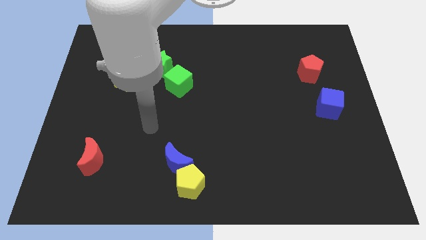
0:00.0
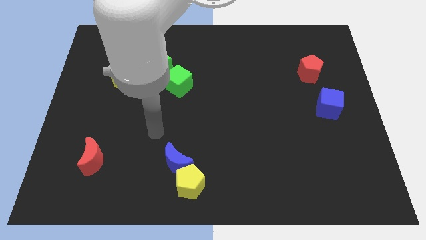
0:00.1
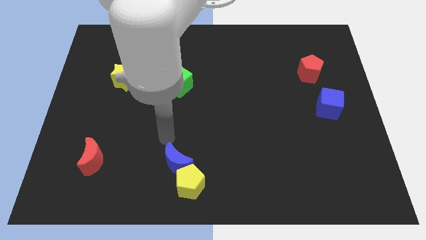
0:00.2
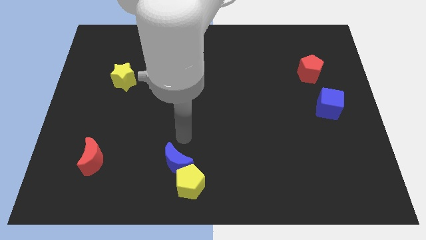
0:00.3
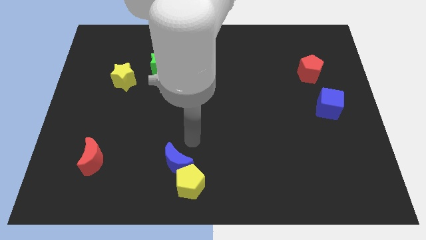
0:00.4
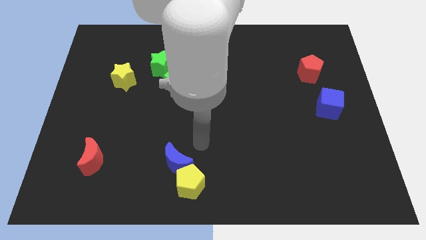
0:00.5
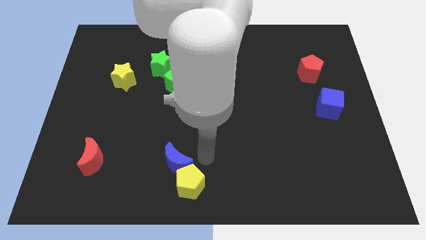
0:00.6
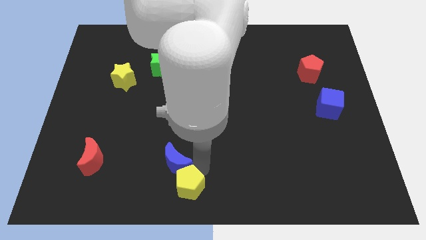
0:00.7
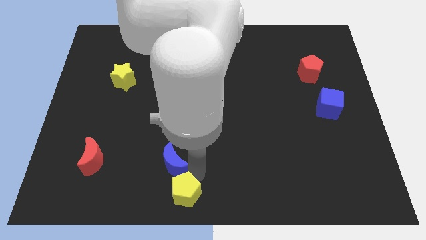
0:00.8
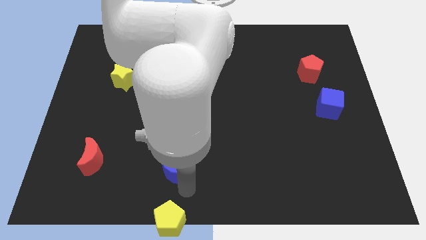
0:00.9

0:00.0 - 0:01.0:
separate the blue moon from the yellow pentagon

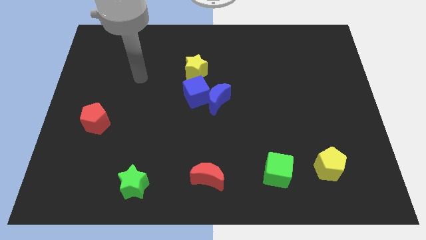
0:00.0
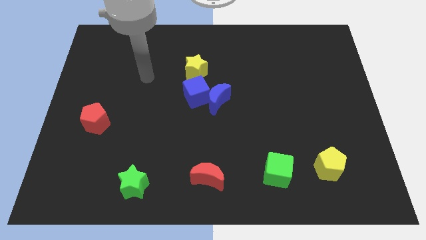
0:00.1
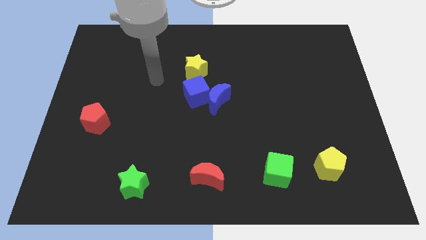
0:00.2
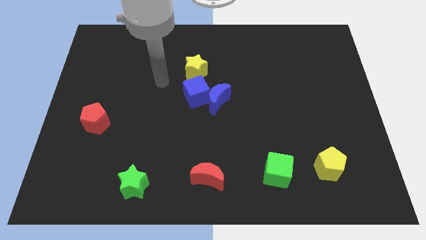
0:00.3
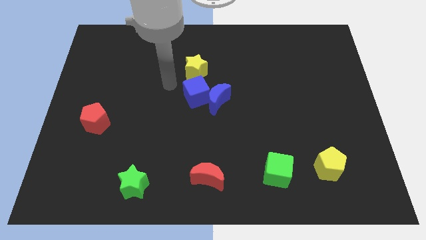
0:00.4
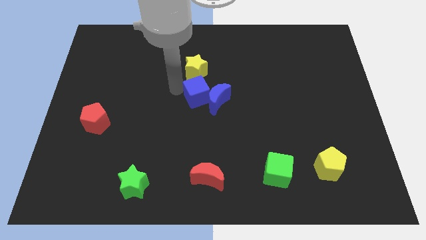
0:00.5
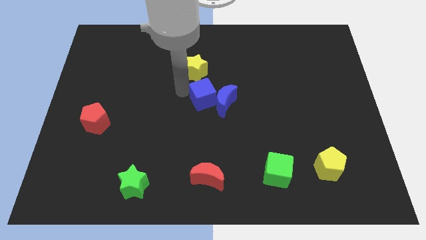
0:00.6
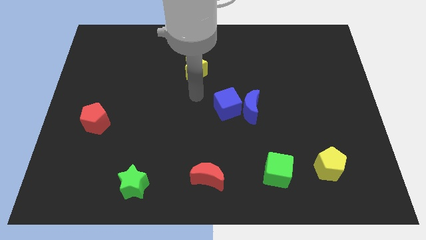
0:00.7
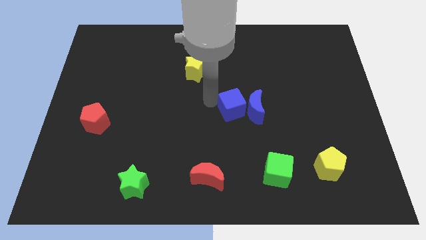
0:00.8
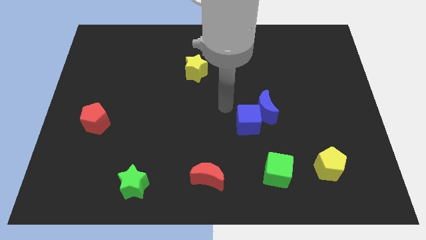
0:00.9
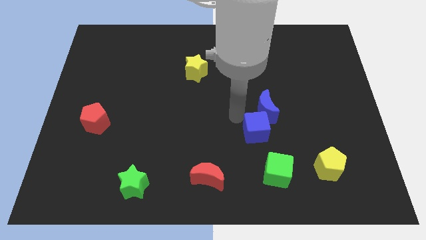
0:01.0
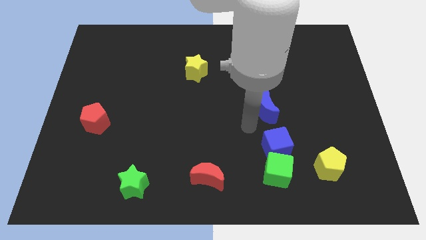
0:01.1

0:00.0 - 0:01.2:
pull the blue moon apart from the blue cube

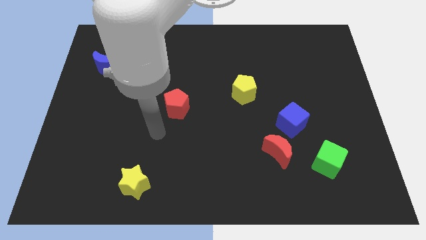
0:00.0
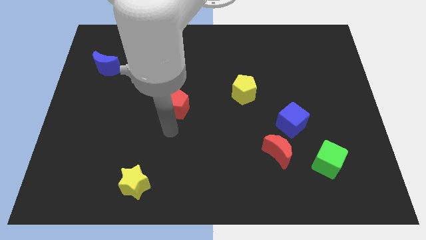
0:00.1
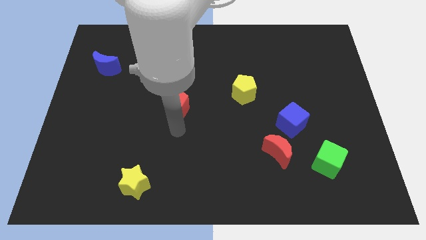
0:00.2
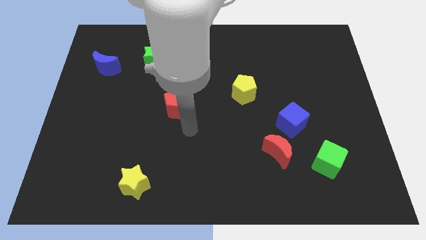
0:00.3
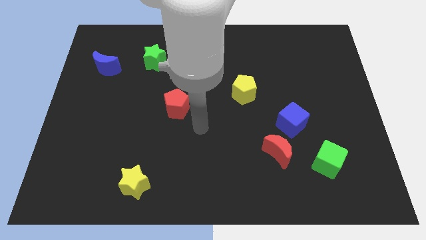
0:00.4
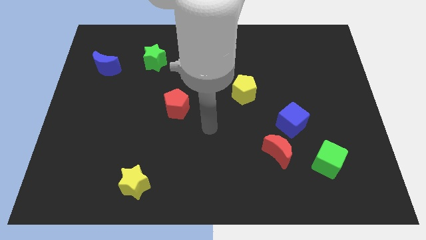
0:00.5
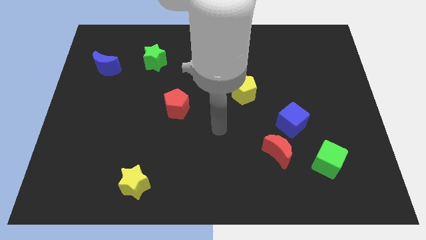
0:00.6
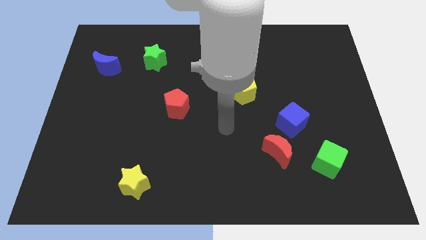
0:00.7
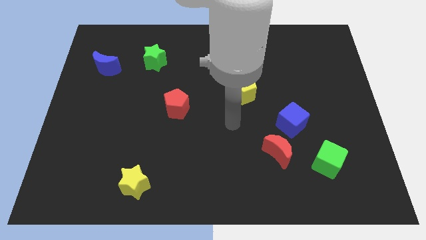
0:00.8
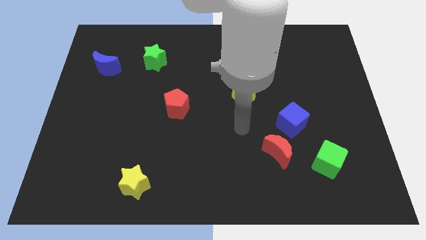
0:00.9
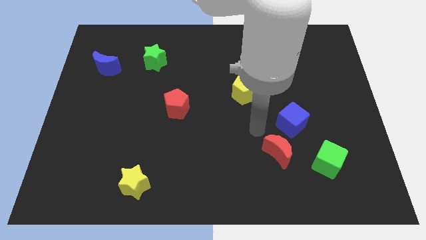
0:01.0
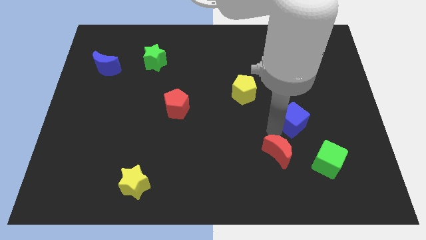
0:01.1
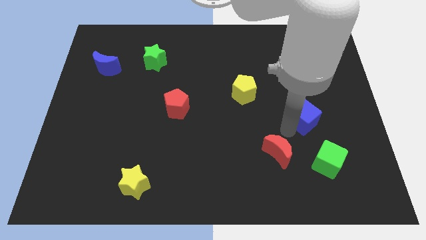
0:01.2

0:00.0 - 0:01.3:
separate the red moon from the blue cube

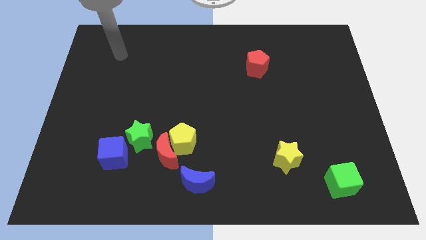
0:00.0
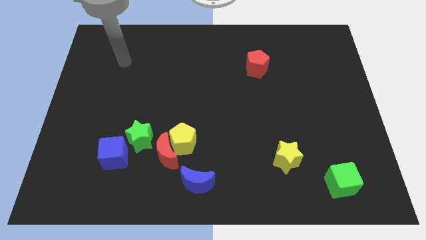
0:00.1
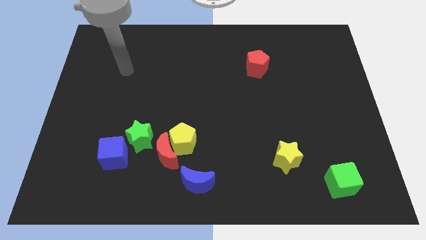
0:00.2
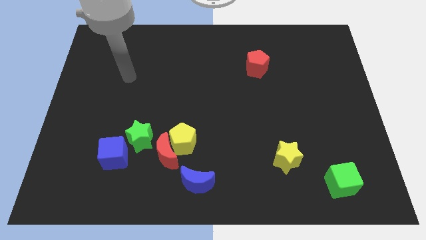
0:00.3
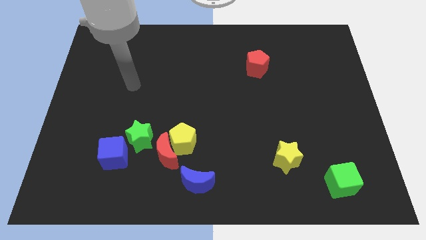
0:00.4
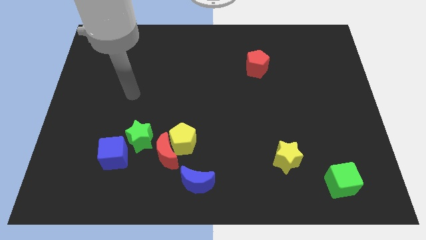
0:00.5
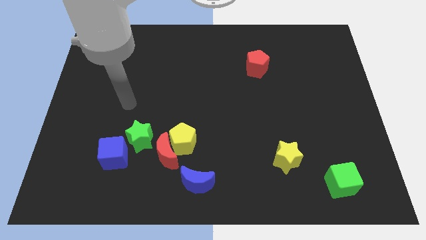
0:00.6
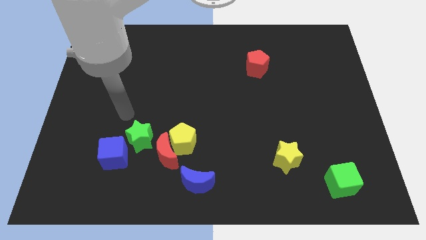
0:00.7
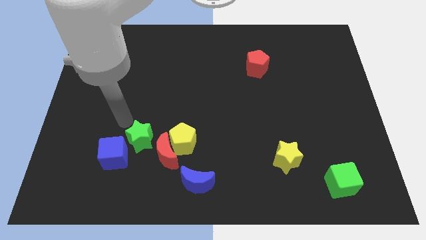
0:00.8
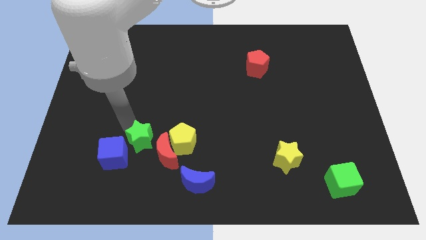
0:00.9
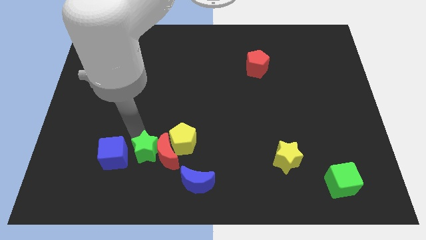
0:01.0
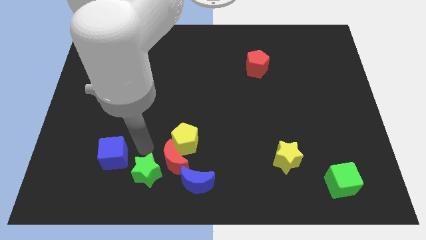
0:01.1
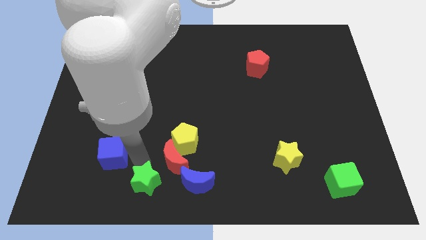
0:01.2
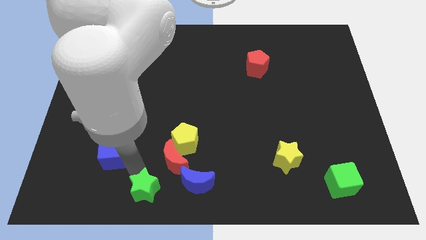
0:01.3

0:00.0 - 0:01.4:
separate the blue cube from the green star

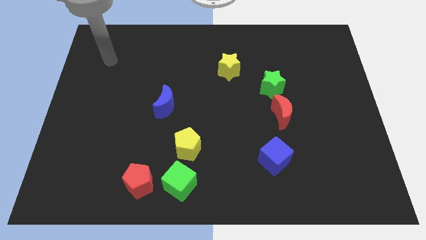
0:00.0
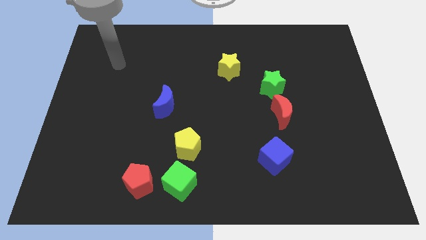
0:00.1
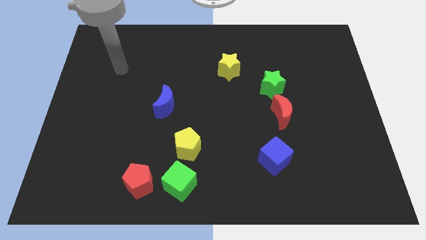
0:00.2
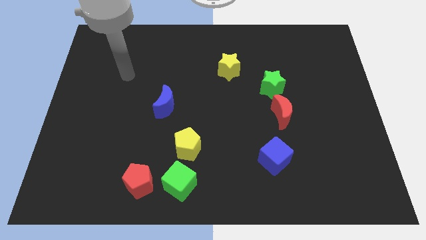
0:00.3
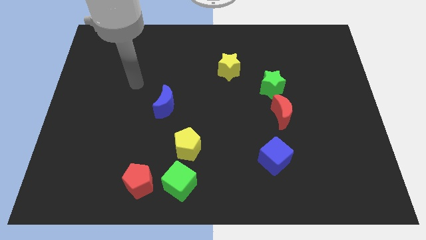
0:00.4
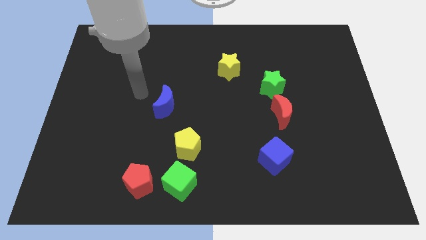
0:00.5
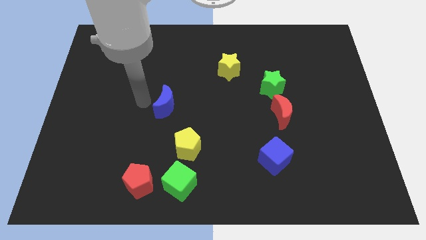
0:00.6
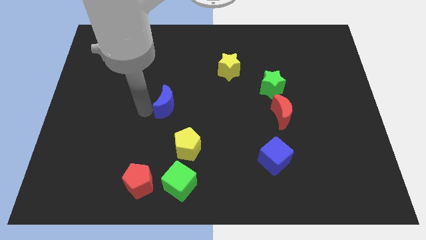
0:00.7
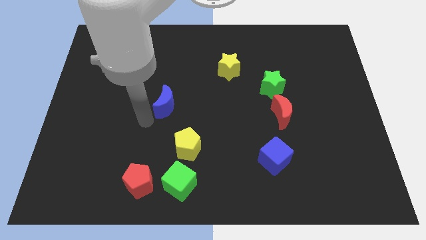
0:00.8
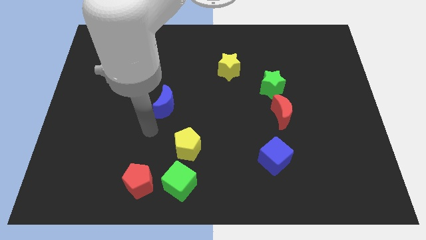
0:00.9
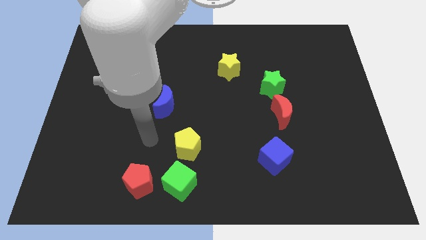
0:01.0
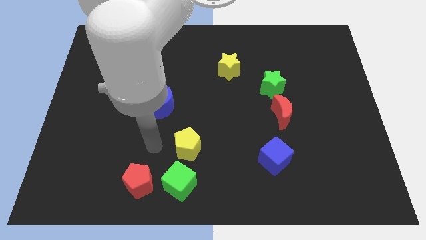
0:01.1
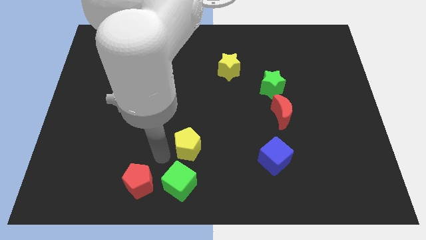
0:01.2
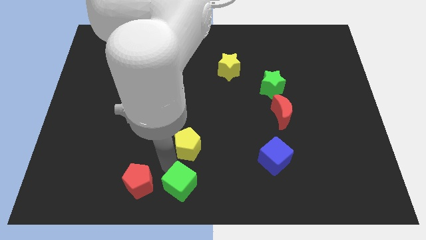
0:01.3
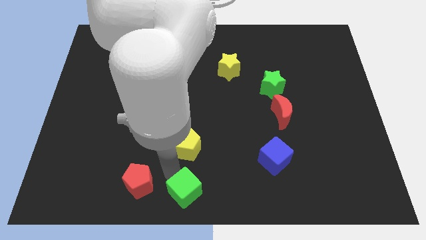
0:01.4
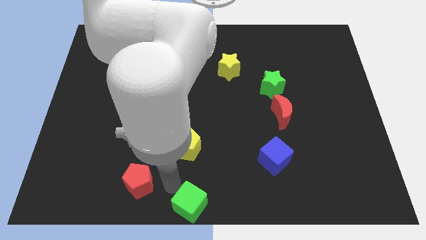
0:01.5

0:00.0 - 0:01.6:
pull the red pentagon apart from the green cube

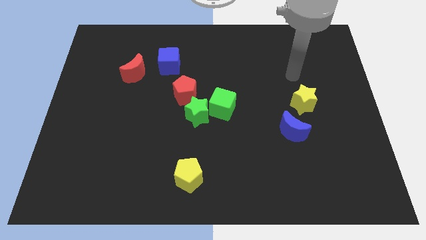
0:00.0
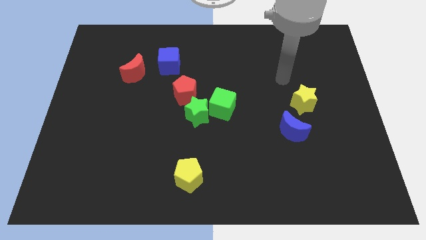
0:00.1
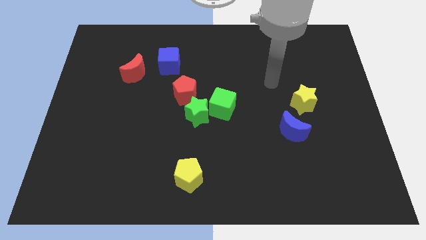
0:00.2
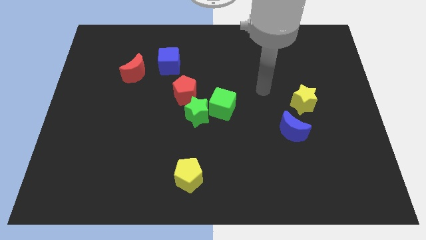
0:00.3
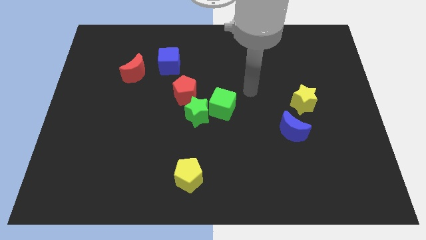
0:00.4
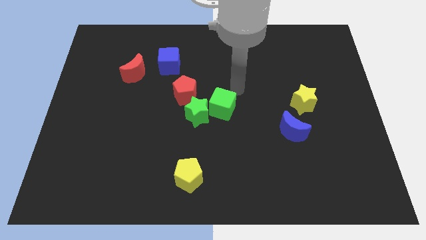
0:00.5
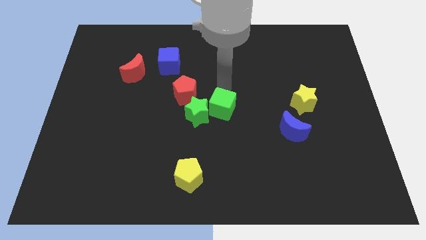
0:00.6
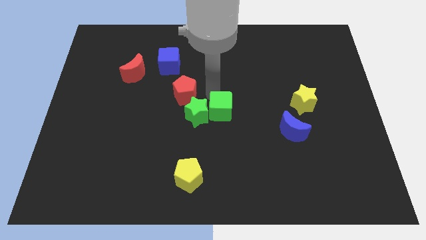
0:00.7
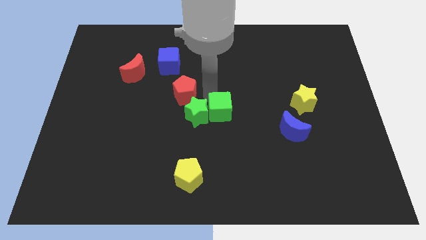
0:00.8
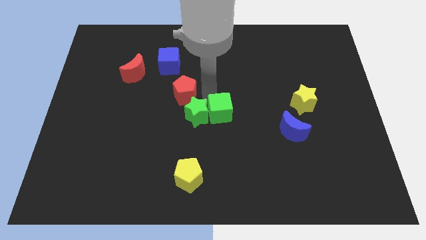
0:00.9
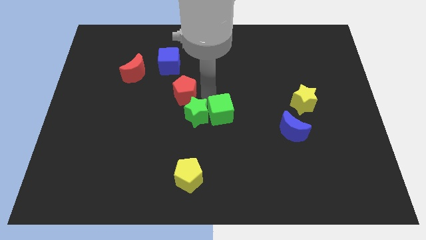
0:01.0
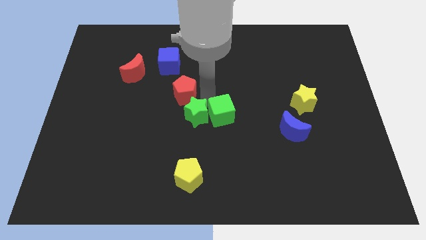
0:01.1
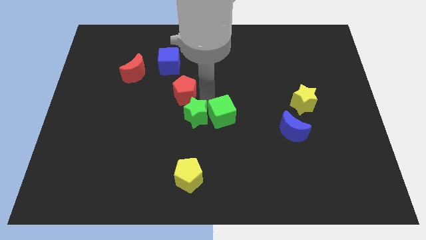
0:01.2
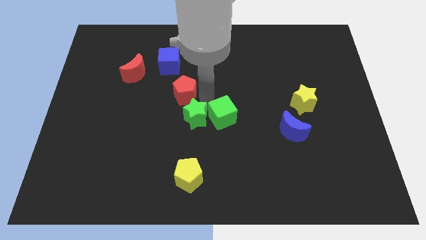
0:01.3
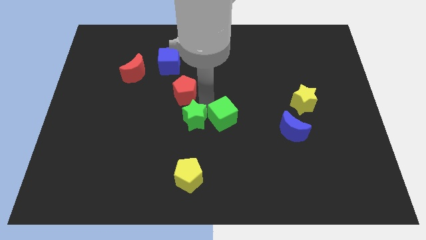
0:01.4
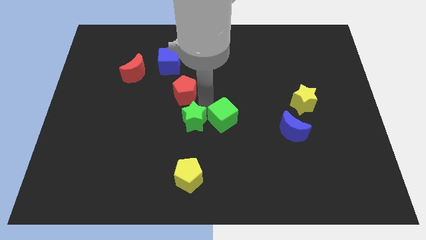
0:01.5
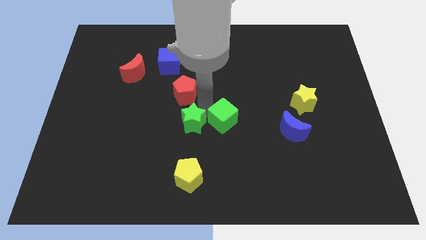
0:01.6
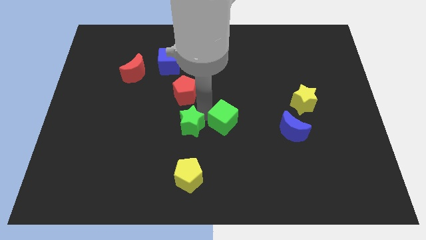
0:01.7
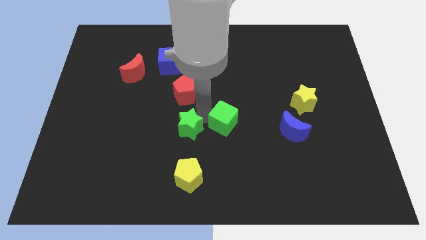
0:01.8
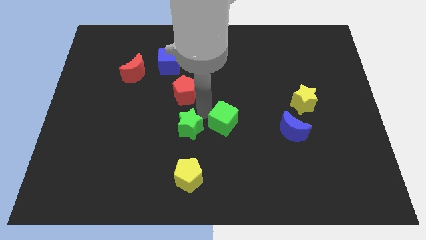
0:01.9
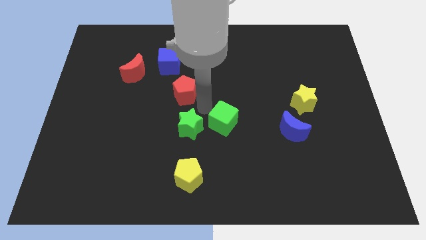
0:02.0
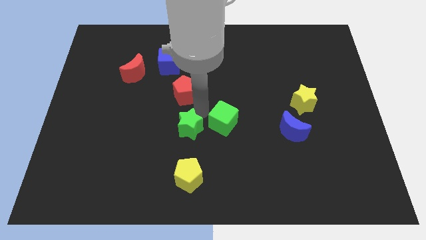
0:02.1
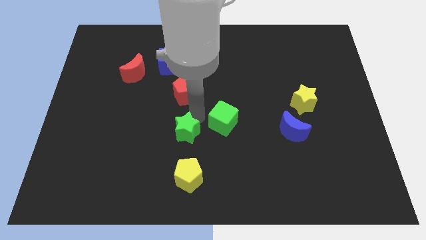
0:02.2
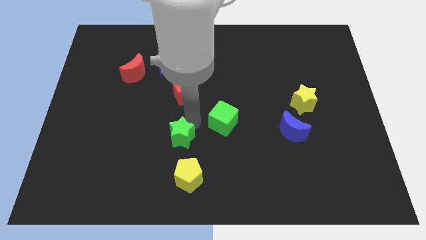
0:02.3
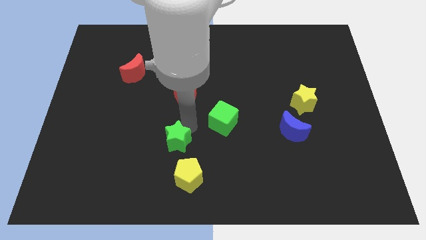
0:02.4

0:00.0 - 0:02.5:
move the green star away from the green cube and red pentagon

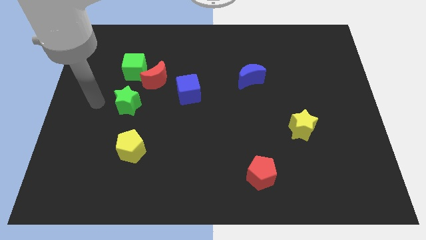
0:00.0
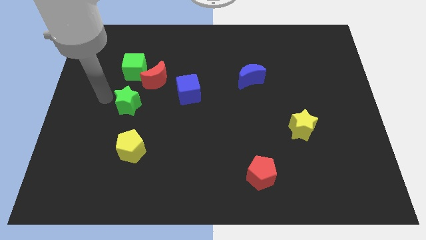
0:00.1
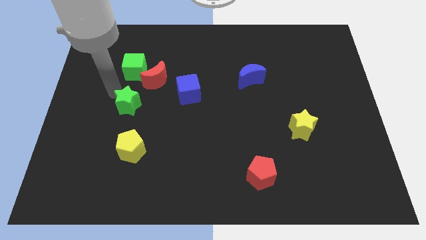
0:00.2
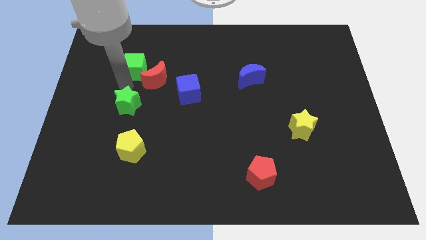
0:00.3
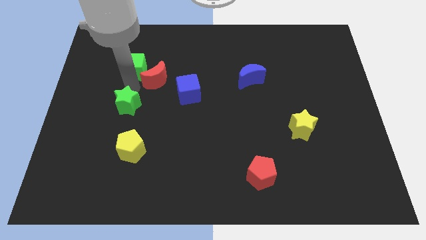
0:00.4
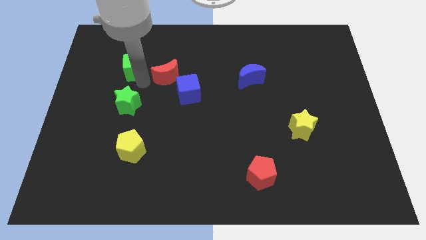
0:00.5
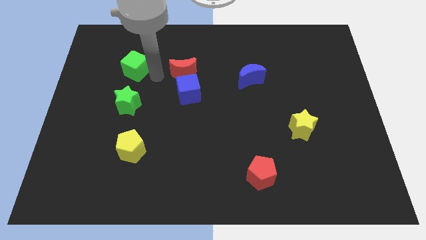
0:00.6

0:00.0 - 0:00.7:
move the green cube away from the red moon
